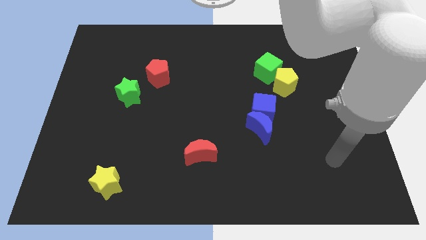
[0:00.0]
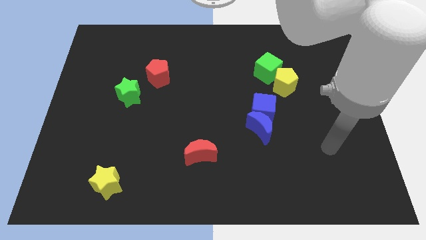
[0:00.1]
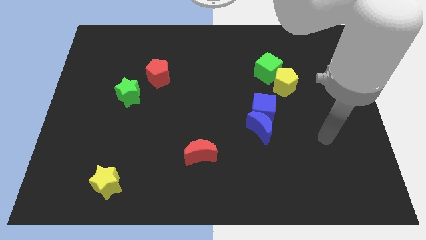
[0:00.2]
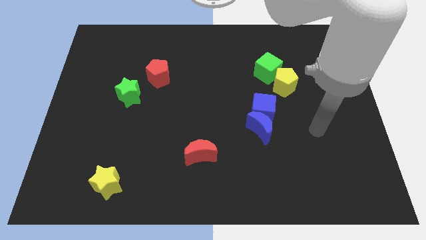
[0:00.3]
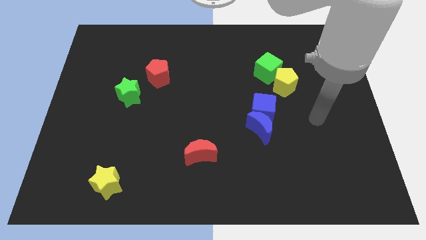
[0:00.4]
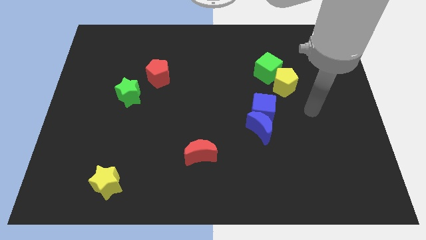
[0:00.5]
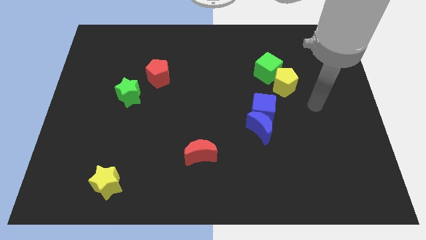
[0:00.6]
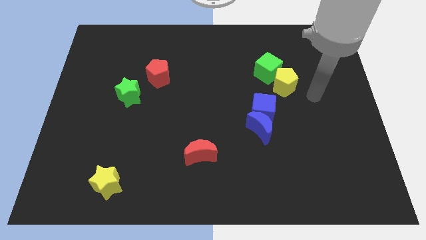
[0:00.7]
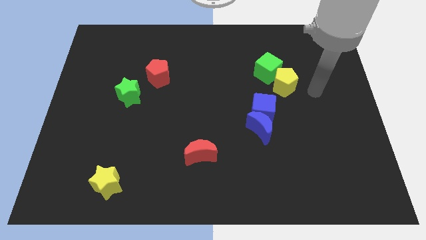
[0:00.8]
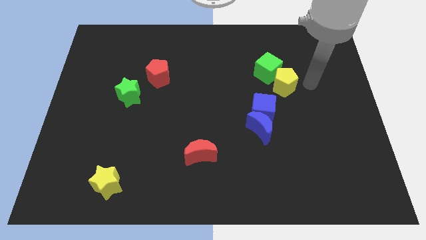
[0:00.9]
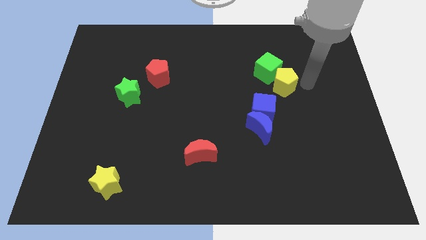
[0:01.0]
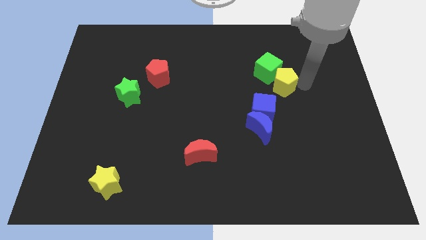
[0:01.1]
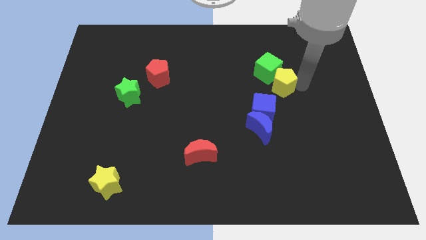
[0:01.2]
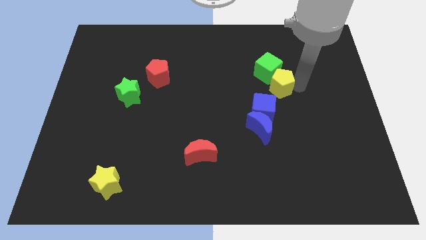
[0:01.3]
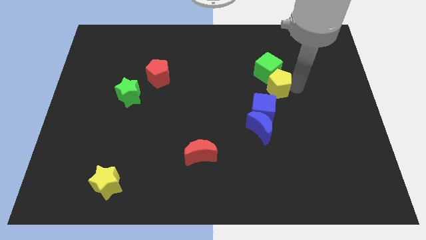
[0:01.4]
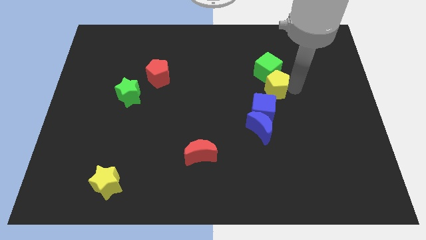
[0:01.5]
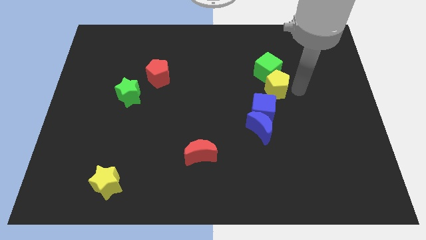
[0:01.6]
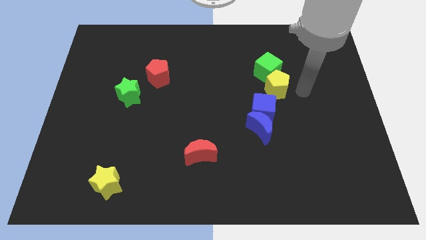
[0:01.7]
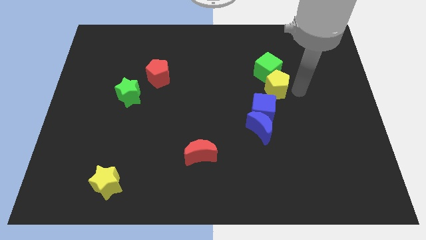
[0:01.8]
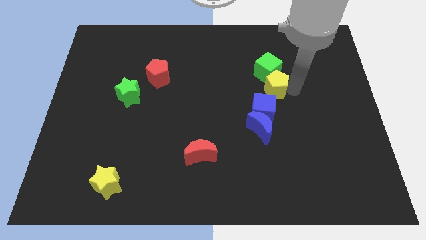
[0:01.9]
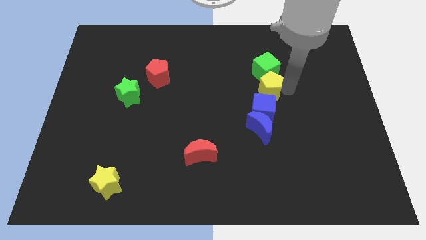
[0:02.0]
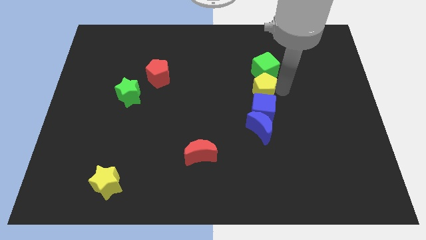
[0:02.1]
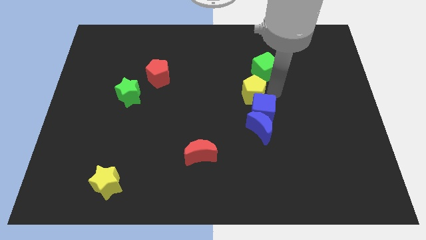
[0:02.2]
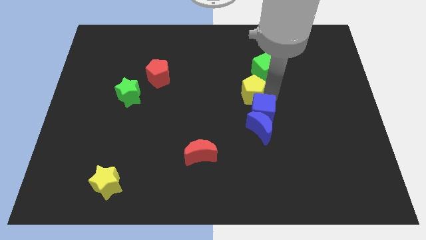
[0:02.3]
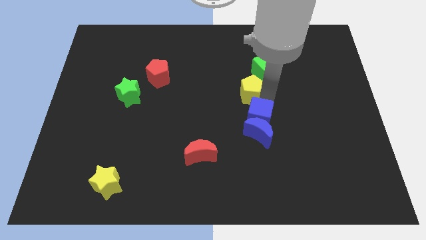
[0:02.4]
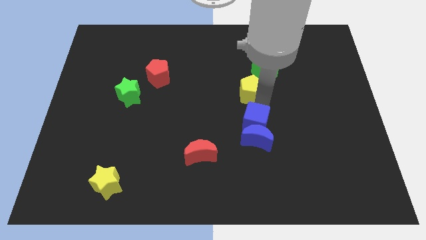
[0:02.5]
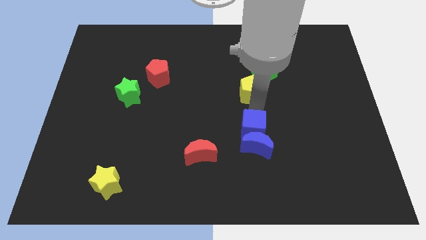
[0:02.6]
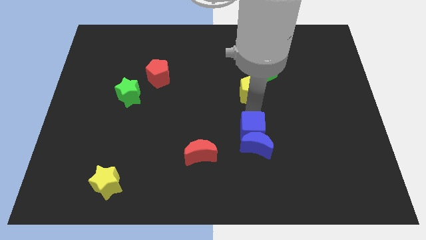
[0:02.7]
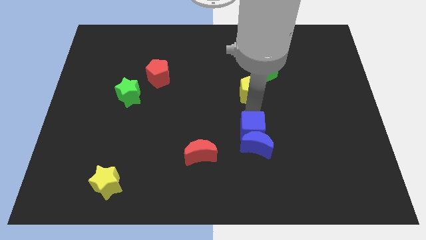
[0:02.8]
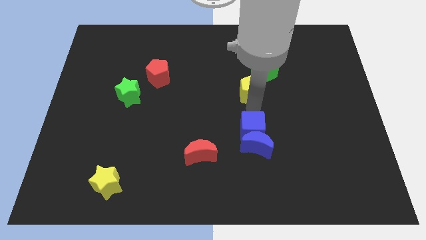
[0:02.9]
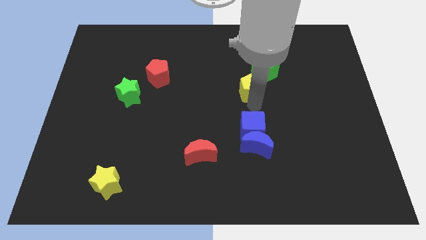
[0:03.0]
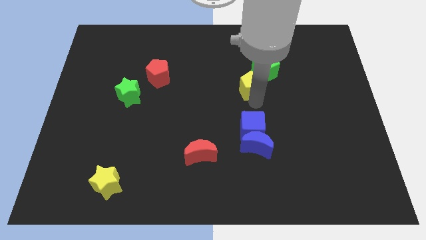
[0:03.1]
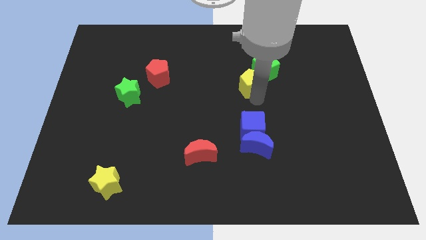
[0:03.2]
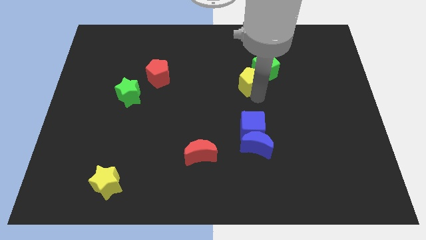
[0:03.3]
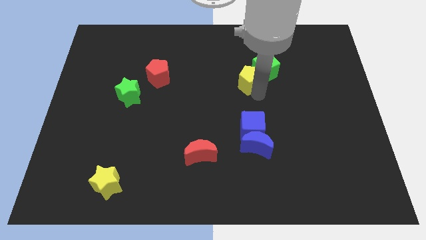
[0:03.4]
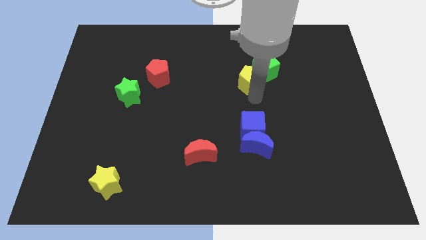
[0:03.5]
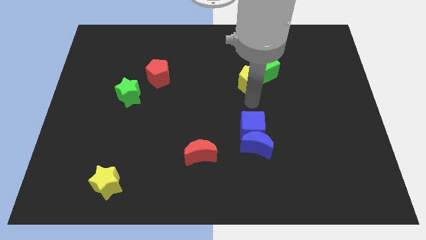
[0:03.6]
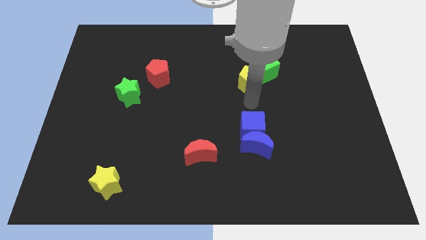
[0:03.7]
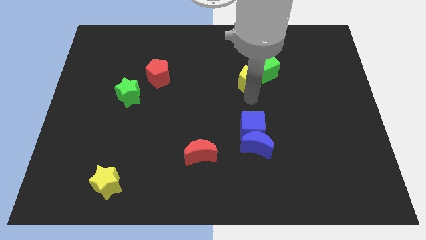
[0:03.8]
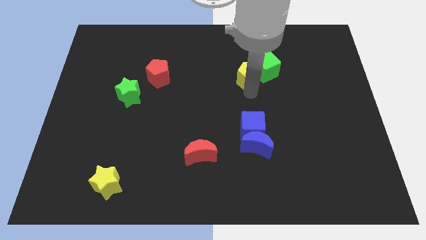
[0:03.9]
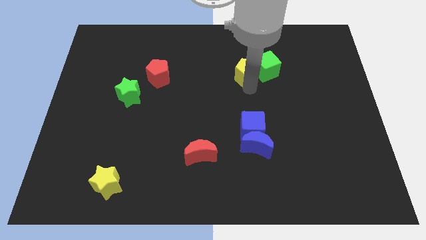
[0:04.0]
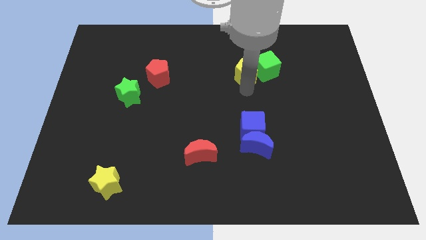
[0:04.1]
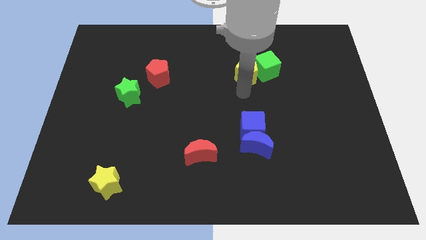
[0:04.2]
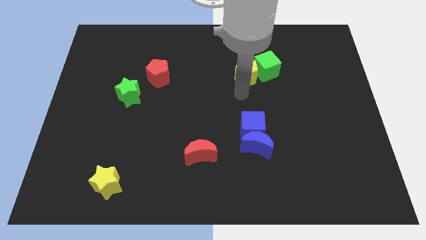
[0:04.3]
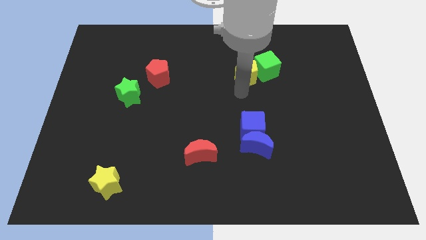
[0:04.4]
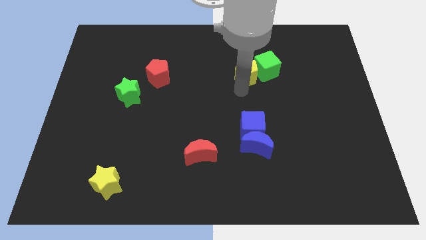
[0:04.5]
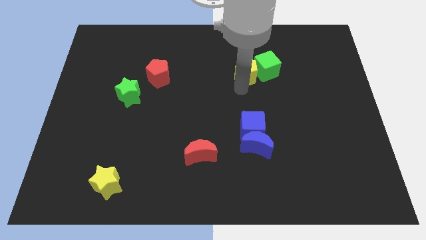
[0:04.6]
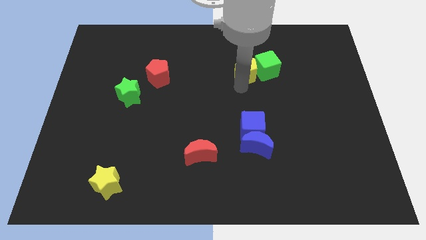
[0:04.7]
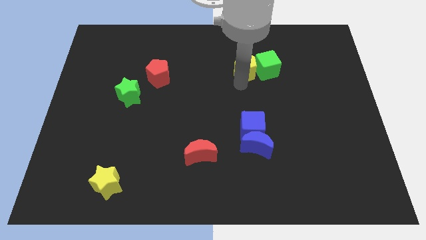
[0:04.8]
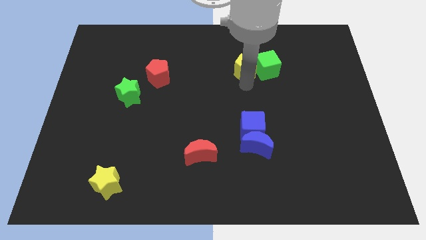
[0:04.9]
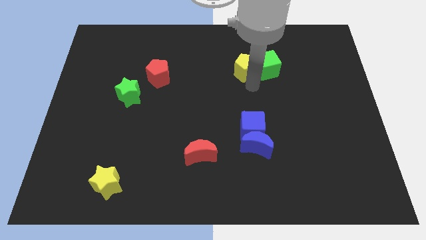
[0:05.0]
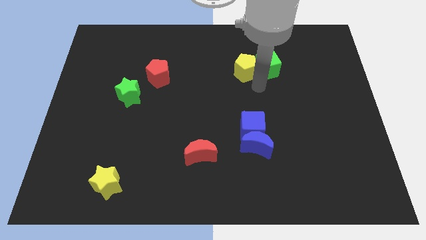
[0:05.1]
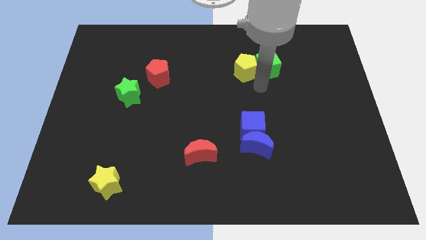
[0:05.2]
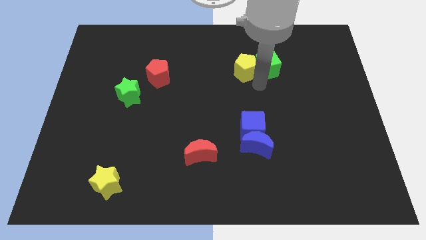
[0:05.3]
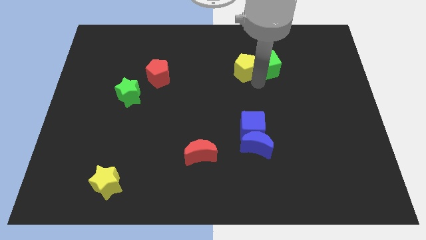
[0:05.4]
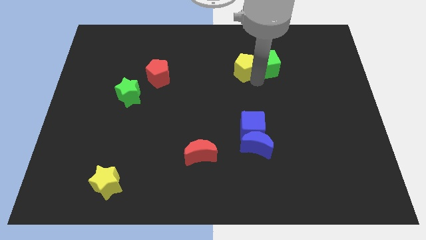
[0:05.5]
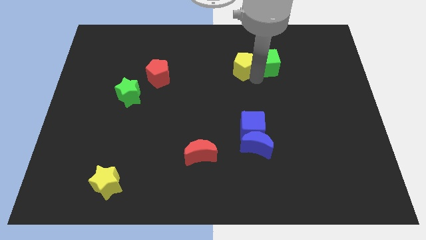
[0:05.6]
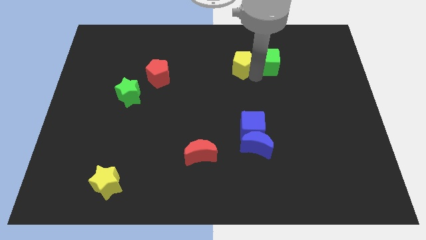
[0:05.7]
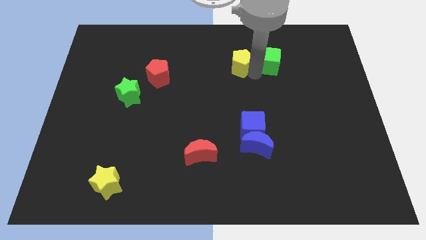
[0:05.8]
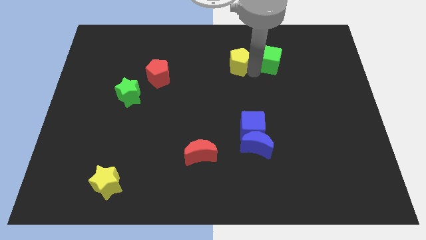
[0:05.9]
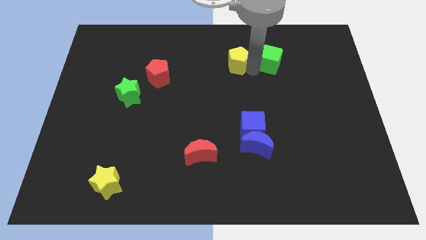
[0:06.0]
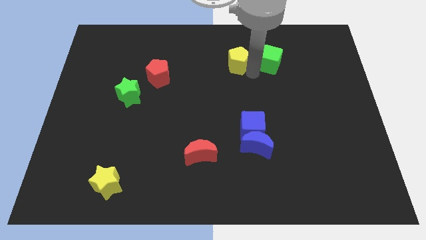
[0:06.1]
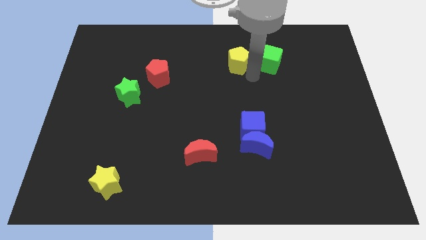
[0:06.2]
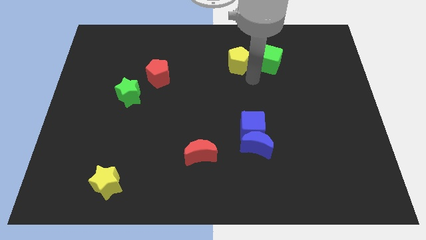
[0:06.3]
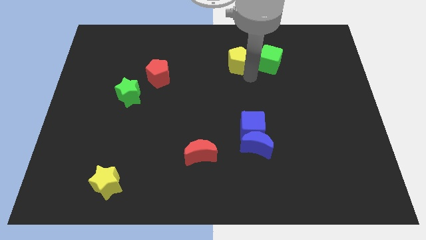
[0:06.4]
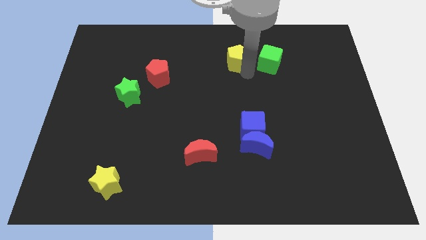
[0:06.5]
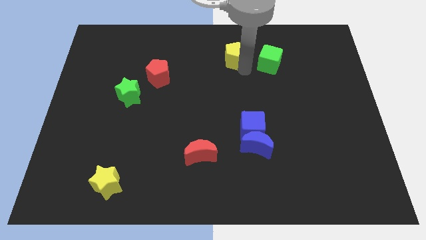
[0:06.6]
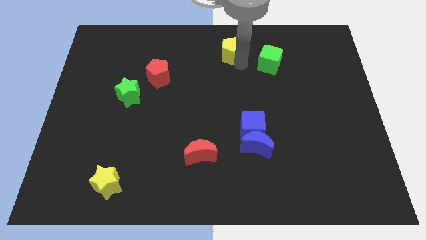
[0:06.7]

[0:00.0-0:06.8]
slide the yellow pentagon to the top
